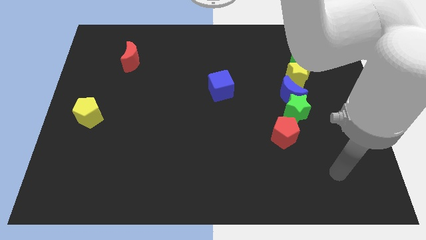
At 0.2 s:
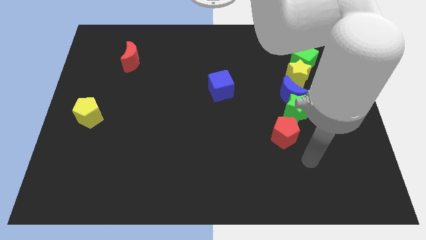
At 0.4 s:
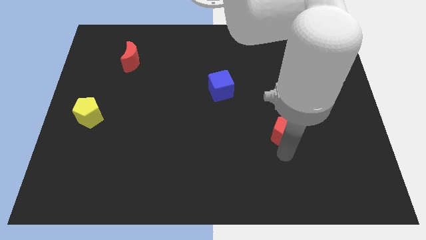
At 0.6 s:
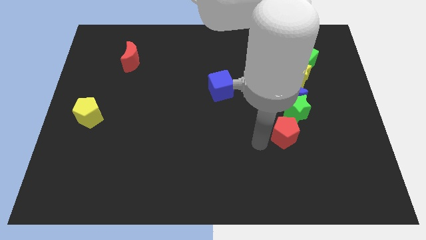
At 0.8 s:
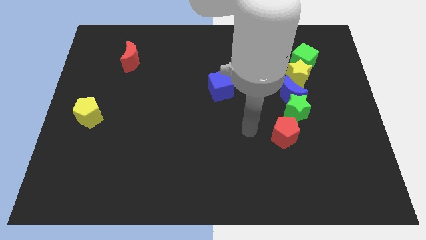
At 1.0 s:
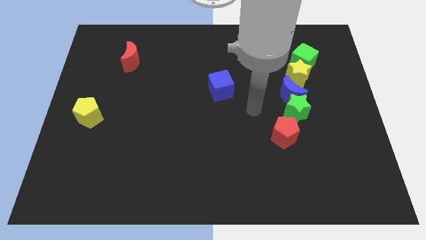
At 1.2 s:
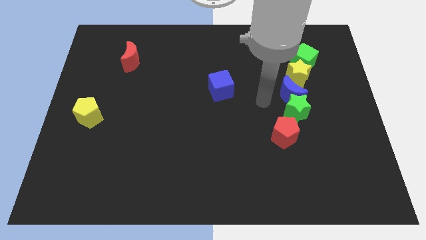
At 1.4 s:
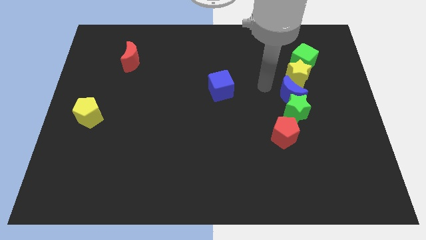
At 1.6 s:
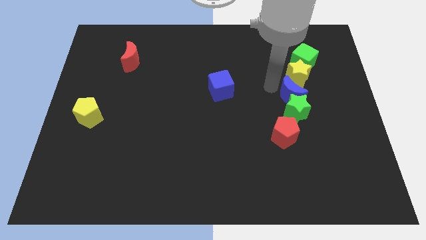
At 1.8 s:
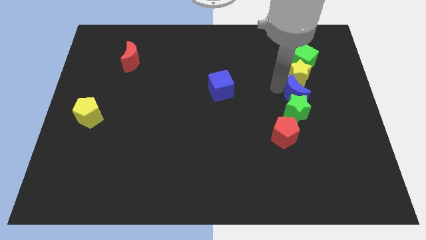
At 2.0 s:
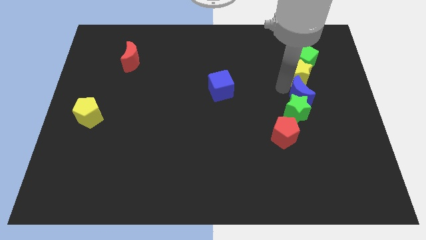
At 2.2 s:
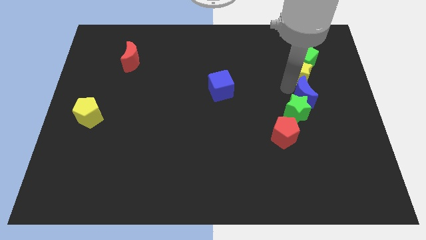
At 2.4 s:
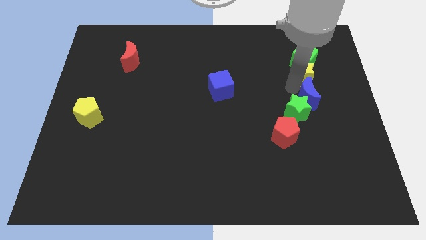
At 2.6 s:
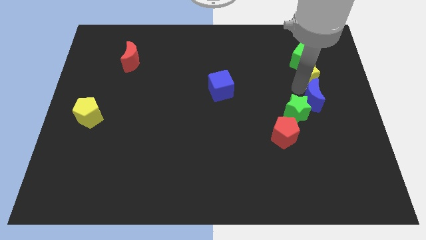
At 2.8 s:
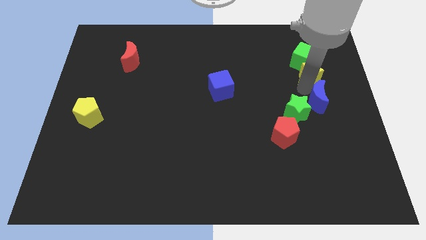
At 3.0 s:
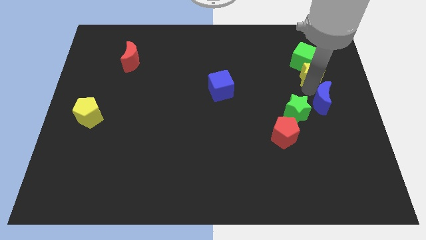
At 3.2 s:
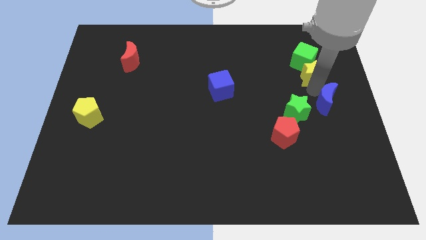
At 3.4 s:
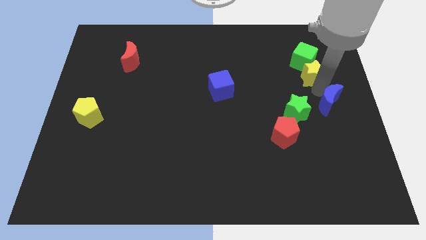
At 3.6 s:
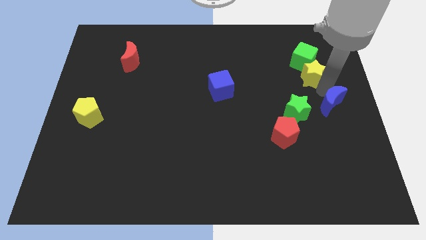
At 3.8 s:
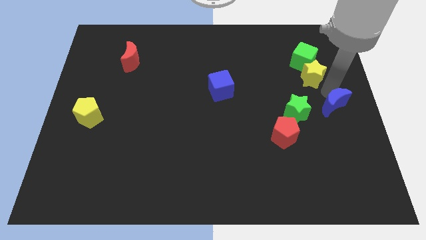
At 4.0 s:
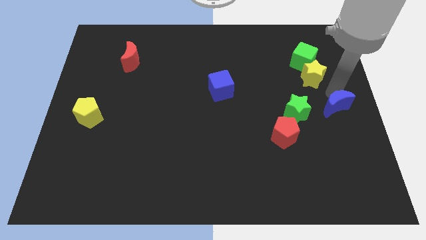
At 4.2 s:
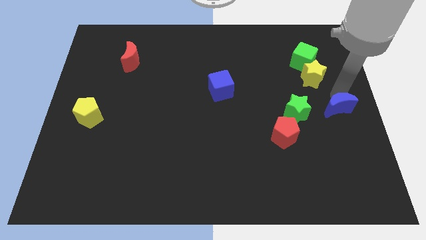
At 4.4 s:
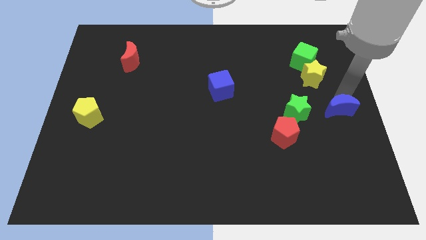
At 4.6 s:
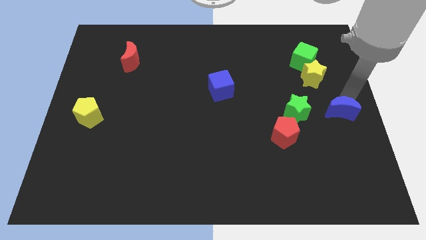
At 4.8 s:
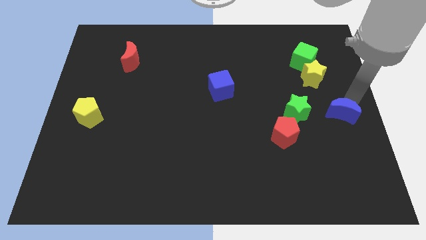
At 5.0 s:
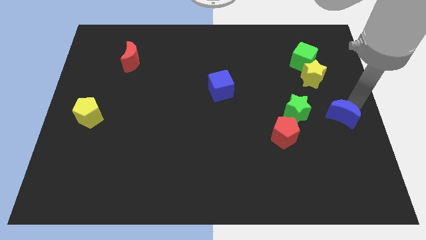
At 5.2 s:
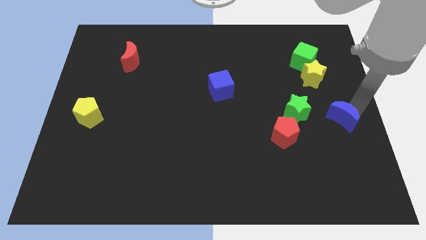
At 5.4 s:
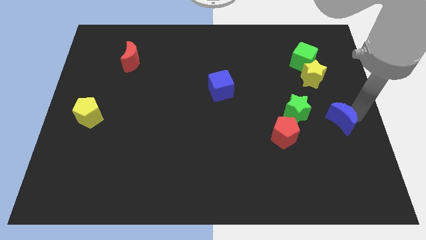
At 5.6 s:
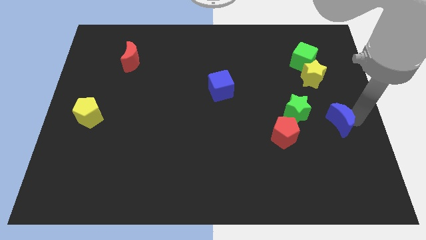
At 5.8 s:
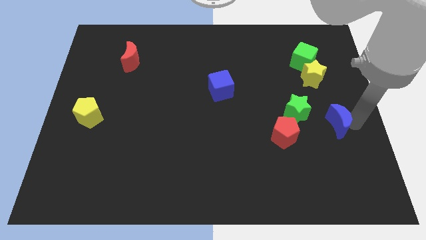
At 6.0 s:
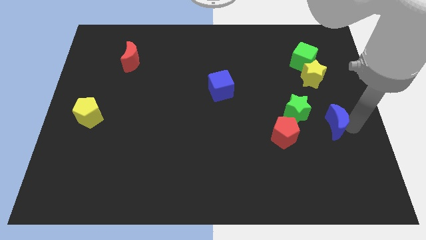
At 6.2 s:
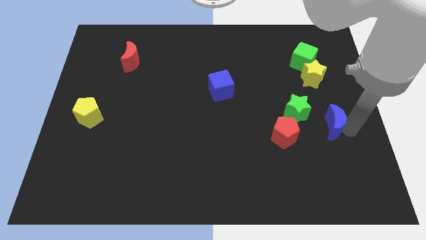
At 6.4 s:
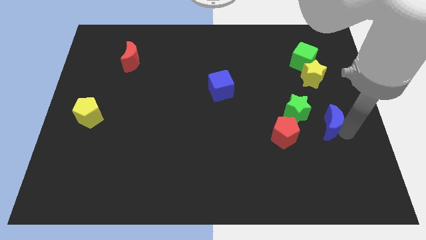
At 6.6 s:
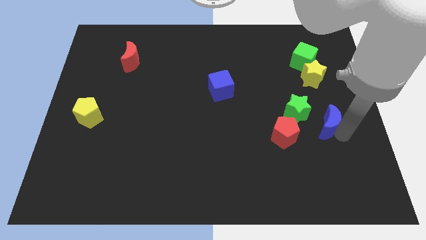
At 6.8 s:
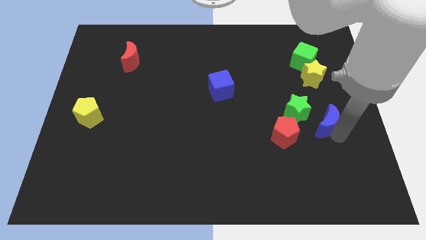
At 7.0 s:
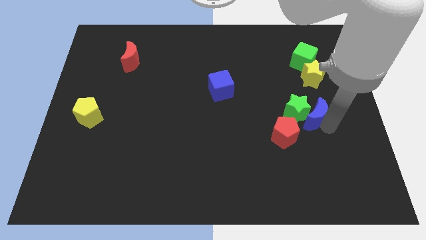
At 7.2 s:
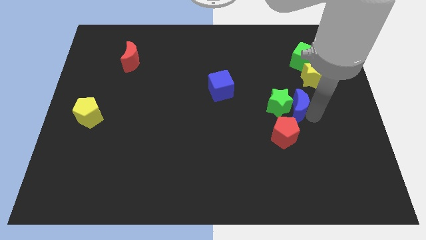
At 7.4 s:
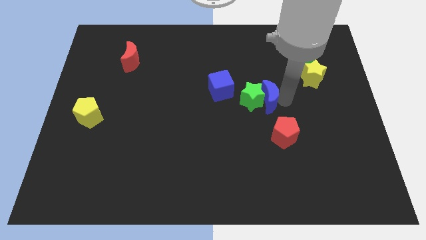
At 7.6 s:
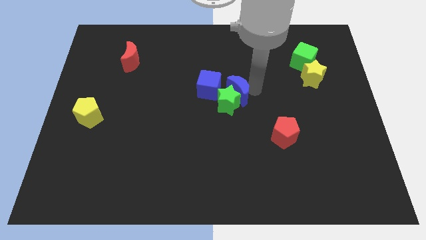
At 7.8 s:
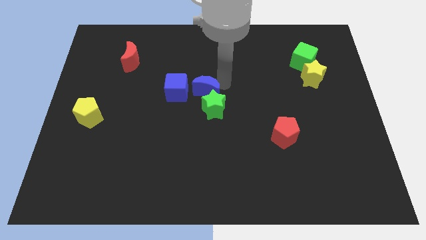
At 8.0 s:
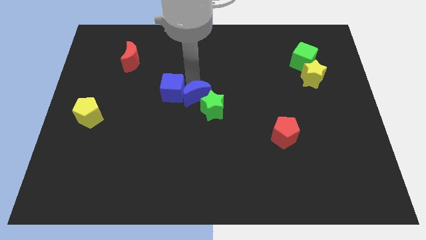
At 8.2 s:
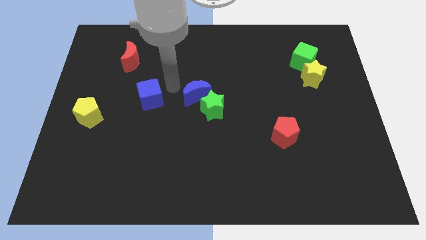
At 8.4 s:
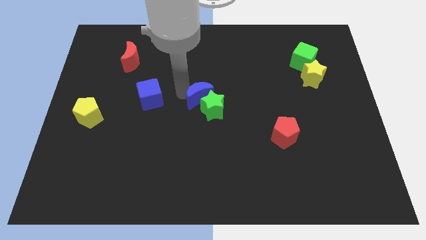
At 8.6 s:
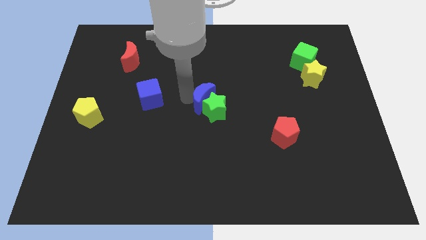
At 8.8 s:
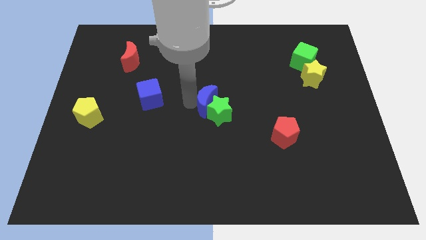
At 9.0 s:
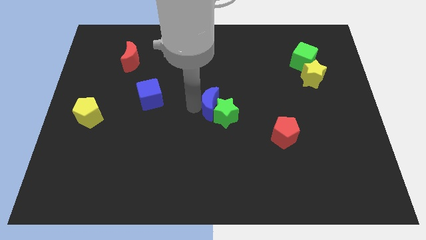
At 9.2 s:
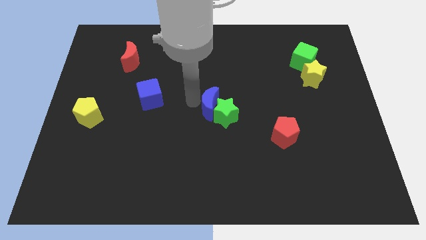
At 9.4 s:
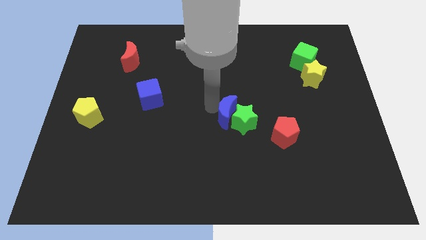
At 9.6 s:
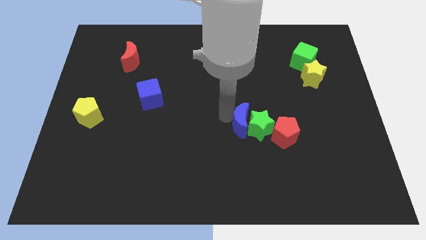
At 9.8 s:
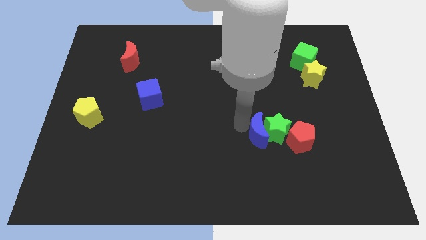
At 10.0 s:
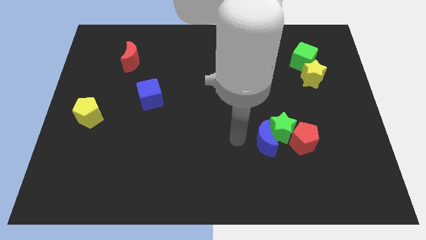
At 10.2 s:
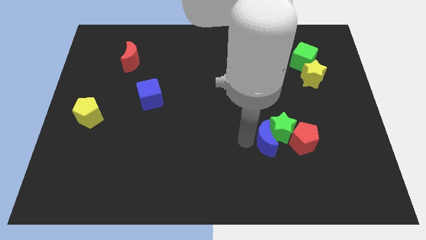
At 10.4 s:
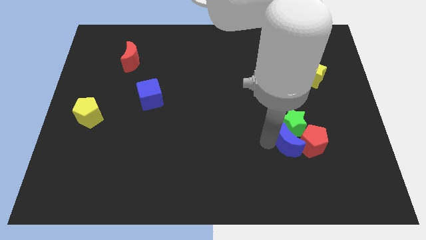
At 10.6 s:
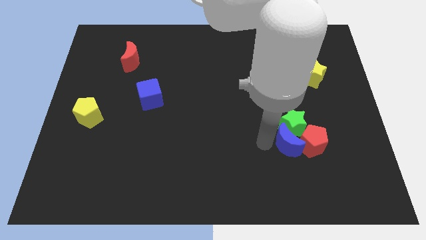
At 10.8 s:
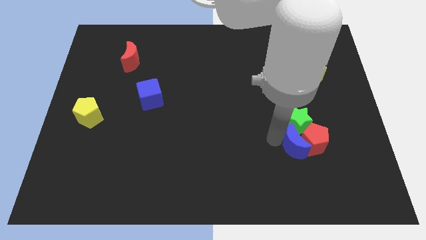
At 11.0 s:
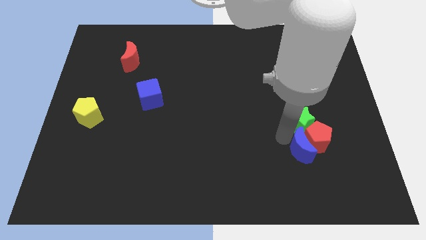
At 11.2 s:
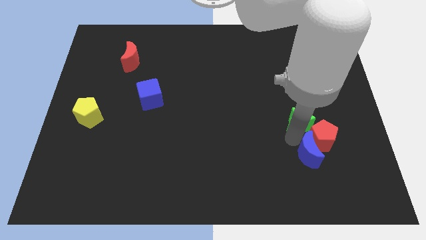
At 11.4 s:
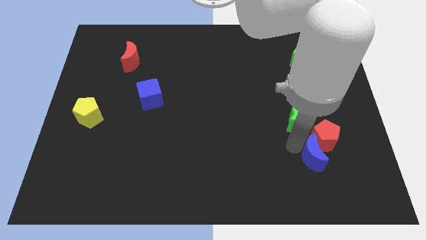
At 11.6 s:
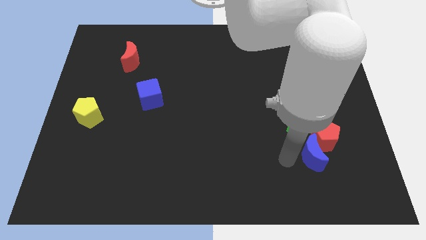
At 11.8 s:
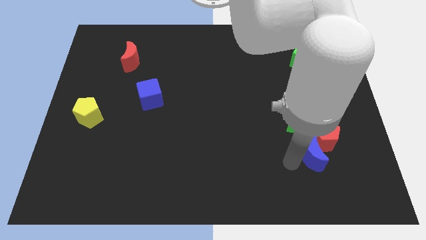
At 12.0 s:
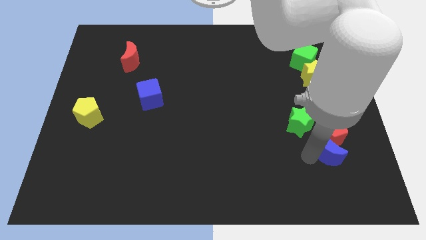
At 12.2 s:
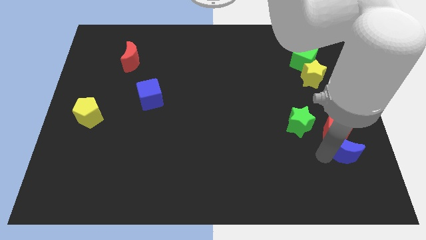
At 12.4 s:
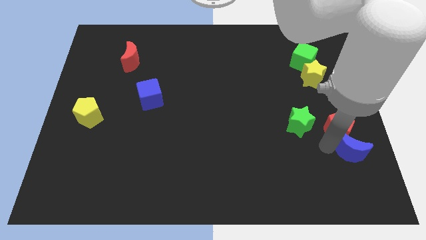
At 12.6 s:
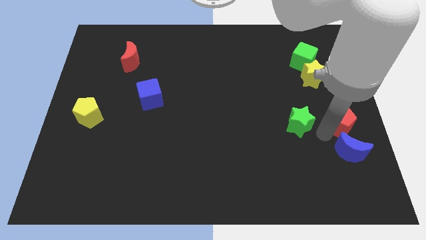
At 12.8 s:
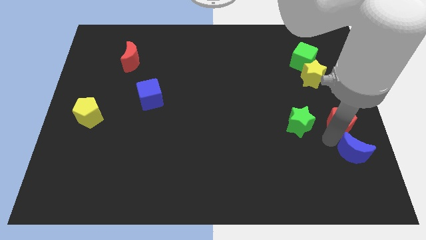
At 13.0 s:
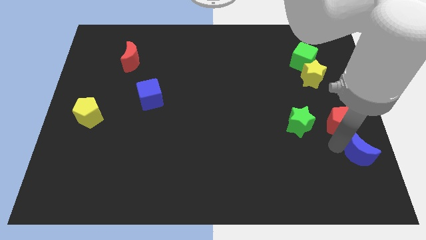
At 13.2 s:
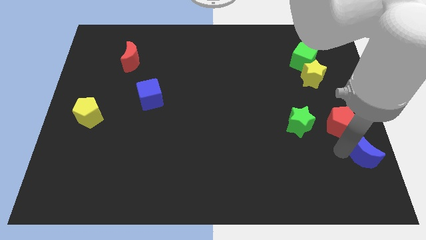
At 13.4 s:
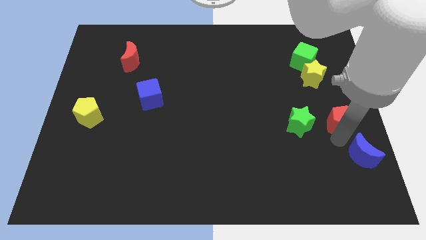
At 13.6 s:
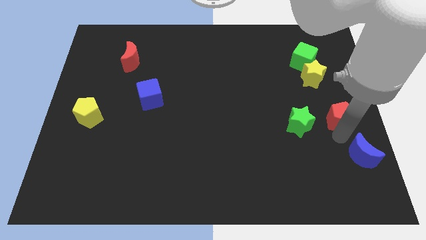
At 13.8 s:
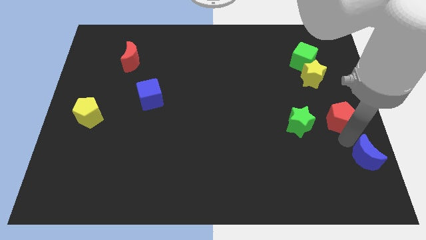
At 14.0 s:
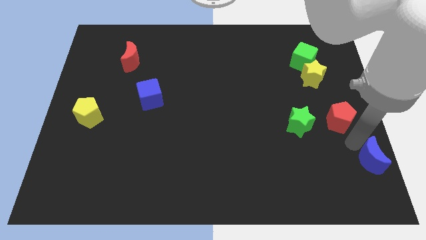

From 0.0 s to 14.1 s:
put the blue moon to the lower right corner

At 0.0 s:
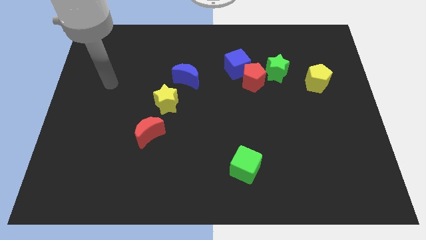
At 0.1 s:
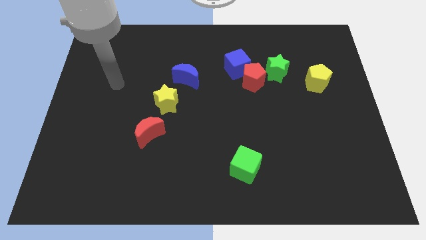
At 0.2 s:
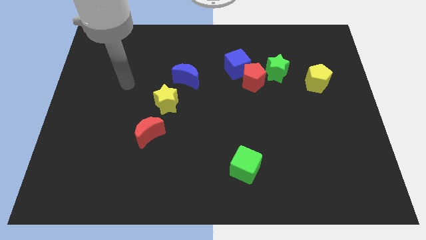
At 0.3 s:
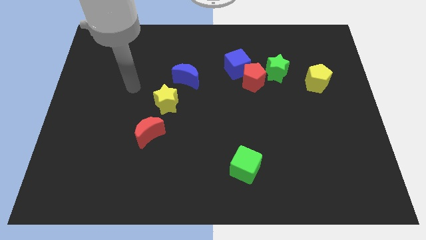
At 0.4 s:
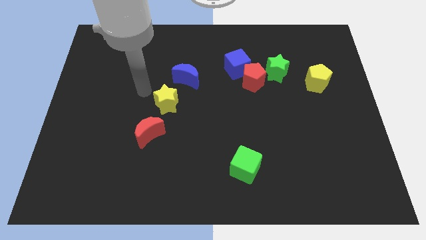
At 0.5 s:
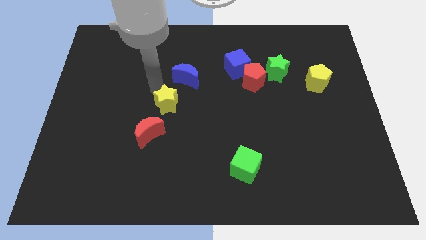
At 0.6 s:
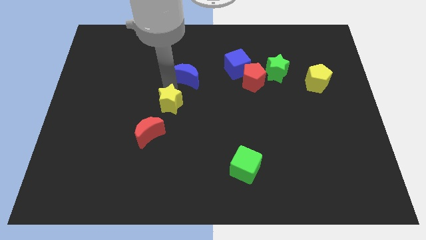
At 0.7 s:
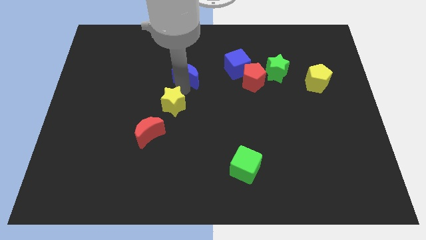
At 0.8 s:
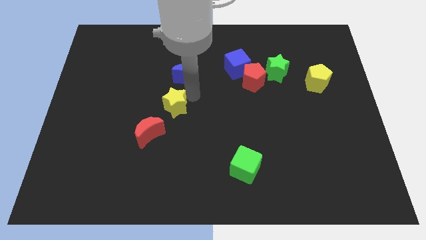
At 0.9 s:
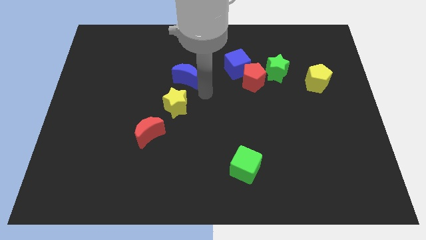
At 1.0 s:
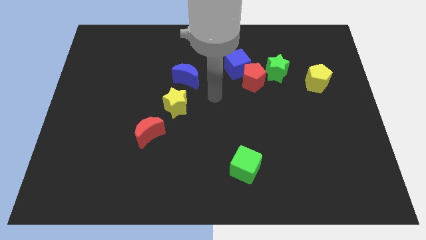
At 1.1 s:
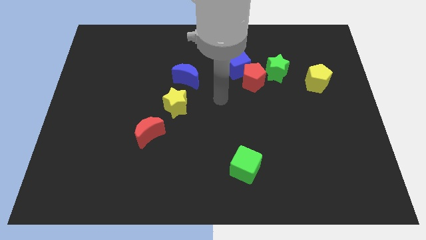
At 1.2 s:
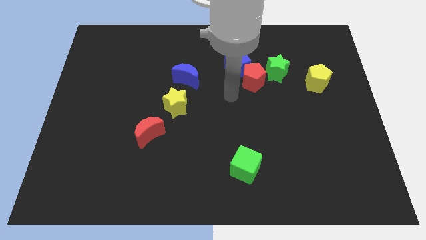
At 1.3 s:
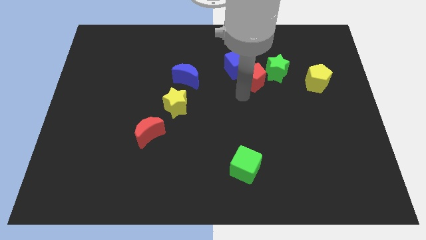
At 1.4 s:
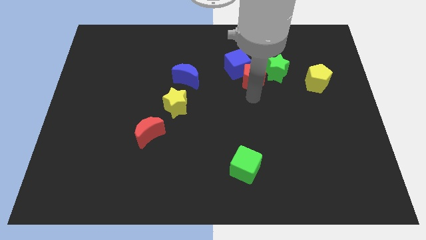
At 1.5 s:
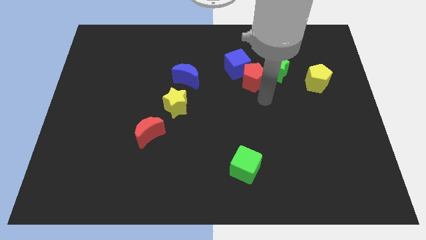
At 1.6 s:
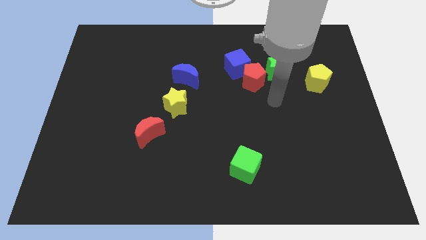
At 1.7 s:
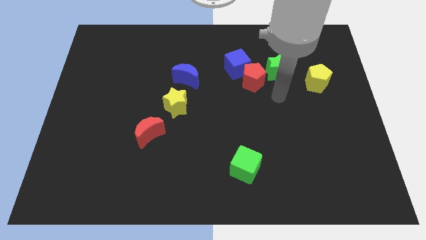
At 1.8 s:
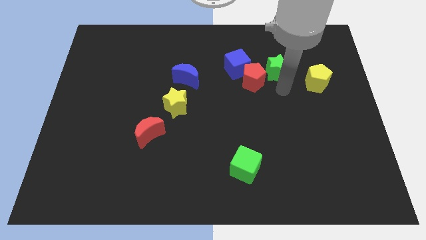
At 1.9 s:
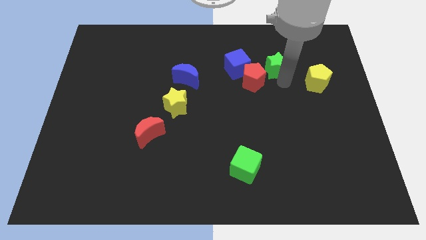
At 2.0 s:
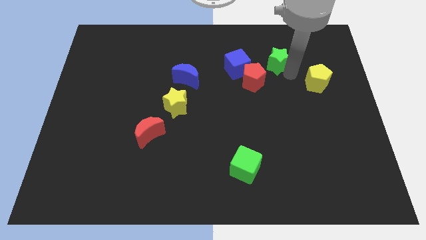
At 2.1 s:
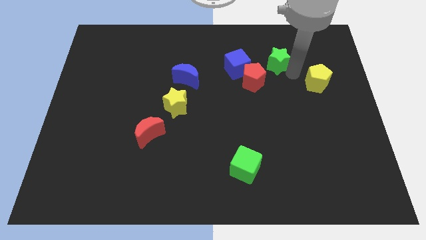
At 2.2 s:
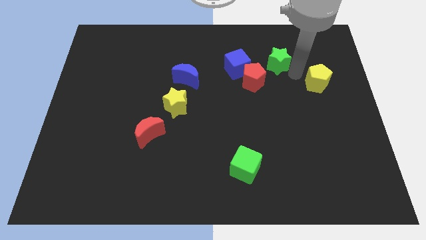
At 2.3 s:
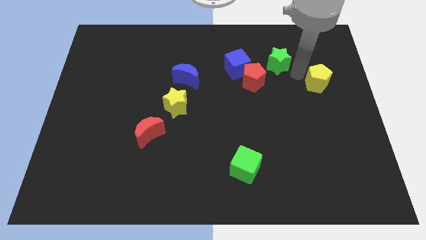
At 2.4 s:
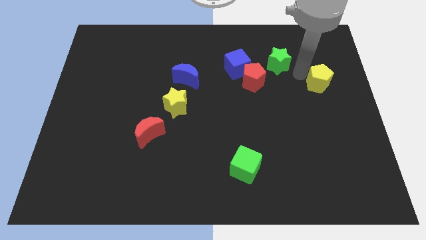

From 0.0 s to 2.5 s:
push the yellow pentagon to the right side of the board
